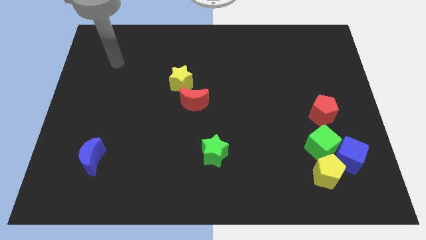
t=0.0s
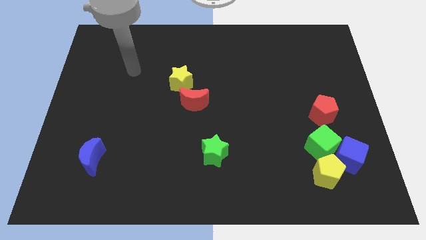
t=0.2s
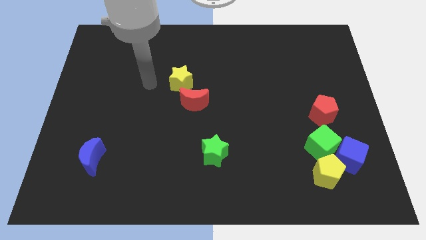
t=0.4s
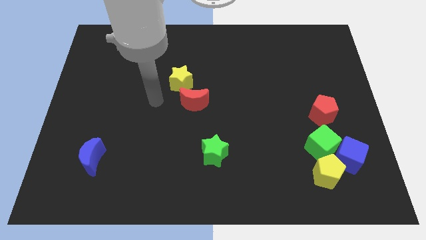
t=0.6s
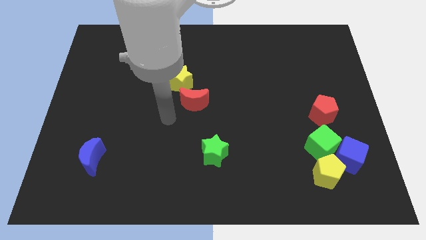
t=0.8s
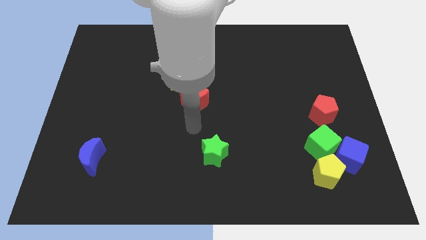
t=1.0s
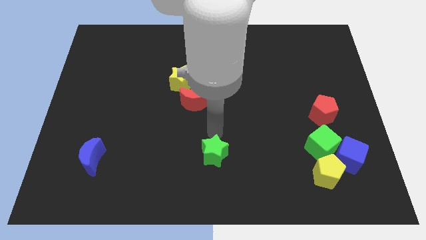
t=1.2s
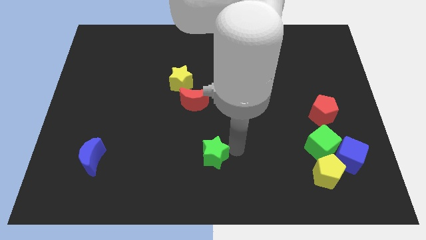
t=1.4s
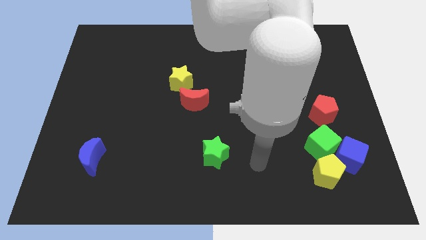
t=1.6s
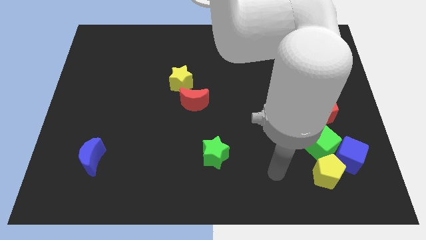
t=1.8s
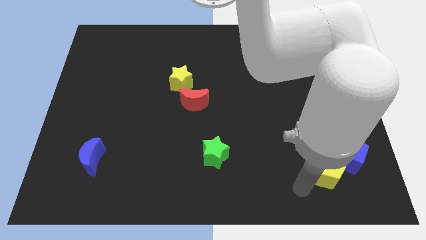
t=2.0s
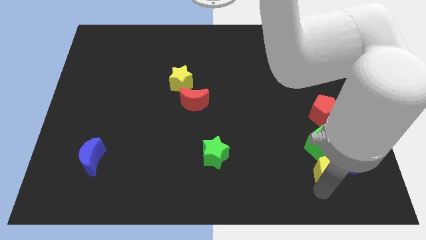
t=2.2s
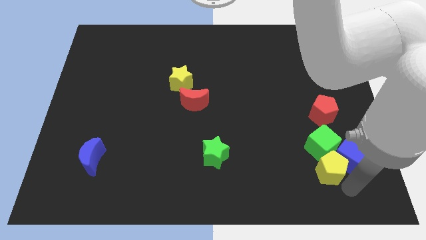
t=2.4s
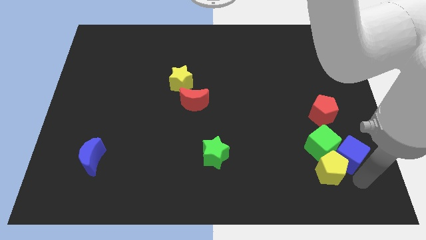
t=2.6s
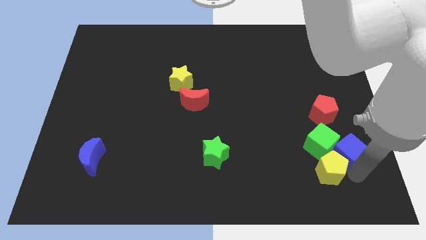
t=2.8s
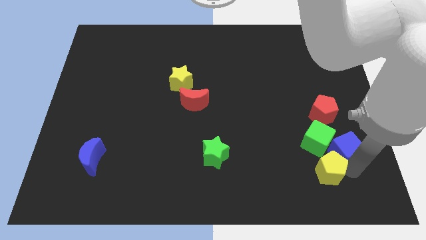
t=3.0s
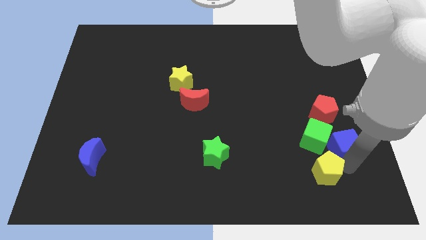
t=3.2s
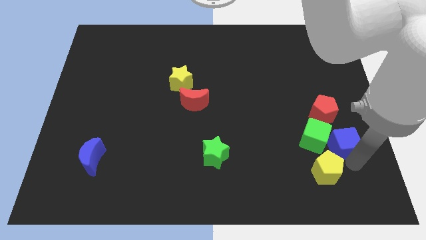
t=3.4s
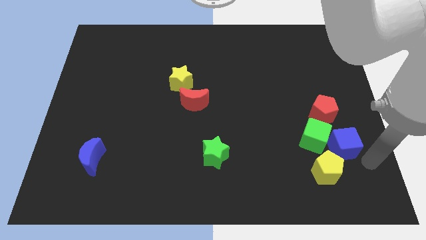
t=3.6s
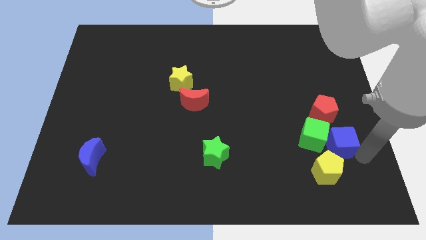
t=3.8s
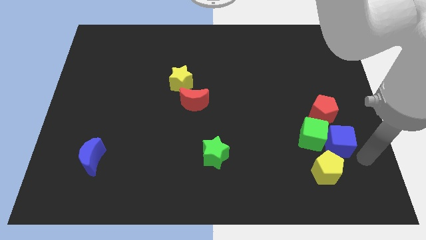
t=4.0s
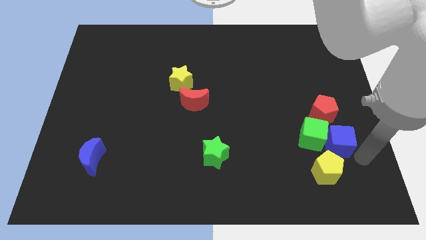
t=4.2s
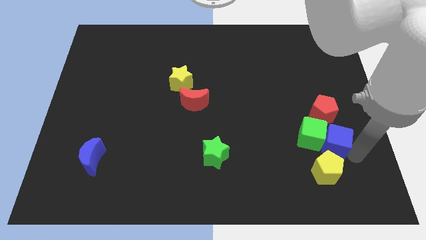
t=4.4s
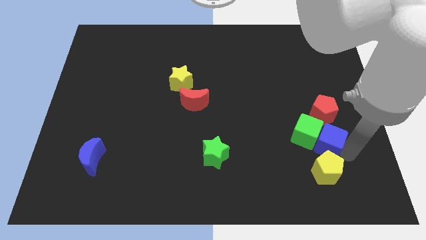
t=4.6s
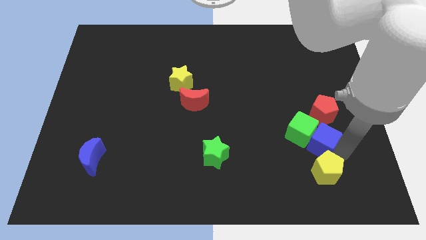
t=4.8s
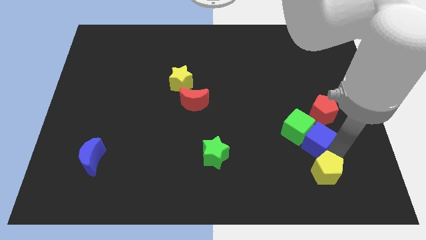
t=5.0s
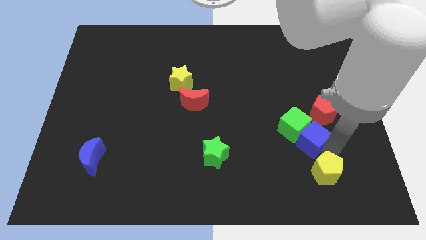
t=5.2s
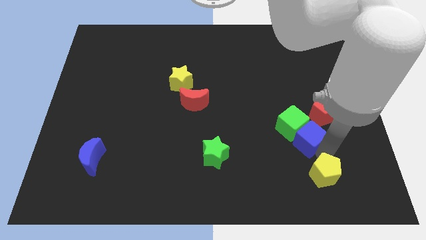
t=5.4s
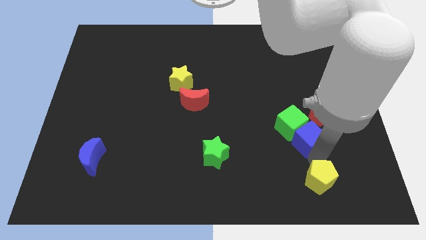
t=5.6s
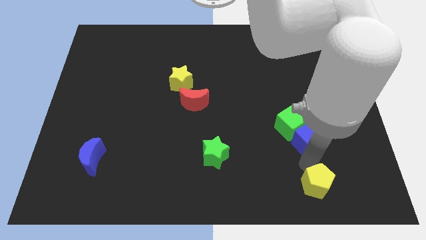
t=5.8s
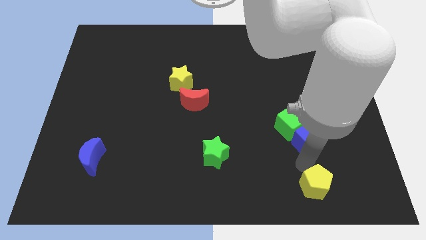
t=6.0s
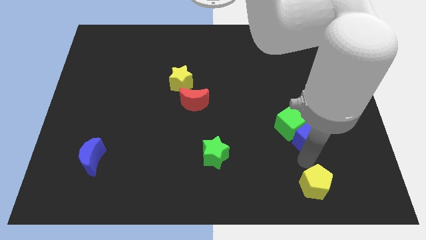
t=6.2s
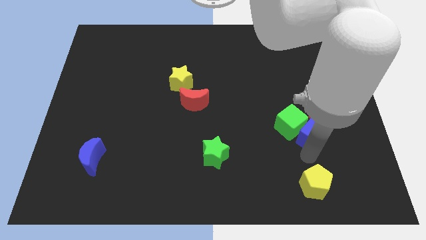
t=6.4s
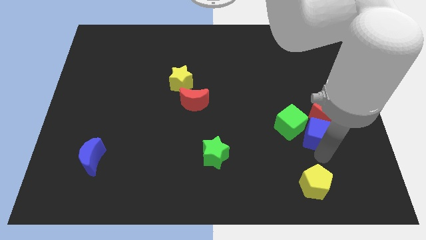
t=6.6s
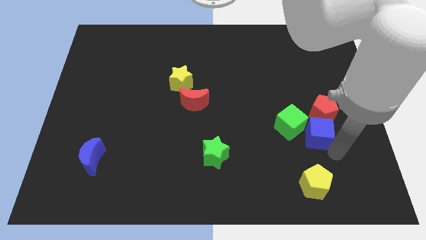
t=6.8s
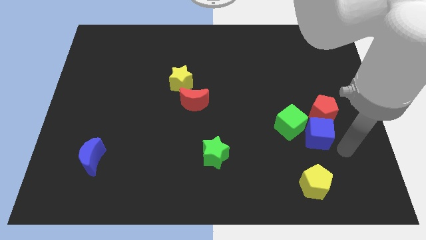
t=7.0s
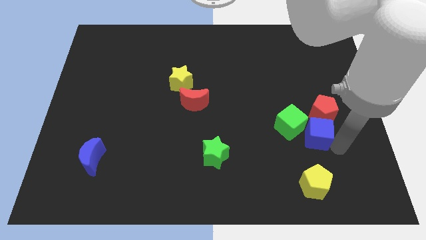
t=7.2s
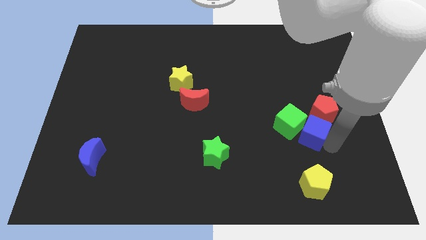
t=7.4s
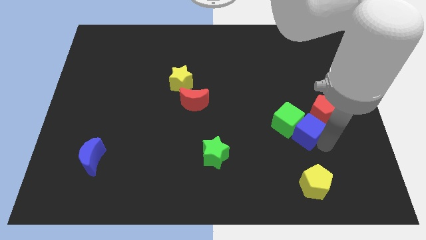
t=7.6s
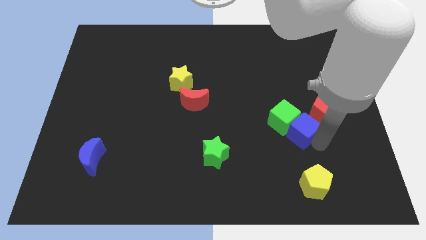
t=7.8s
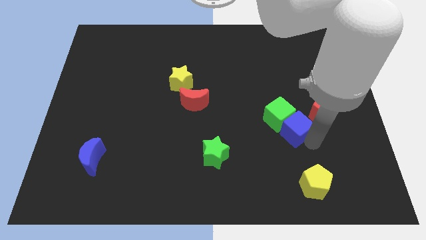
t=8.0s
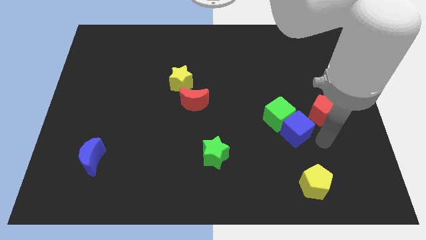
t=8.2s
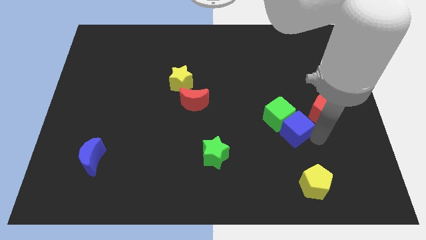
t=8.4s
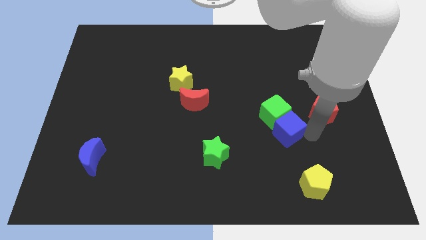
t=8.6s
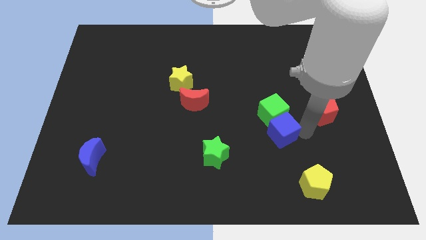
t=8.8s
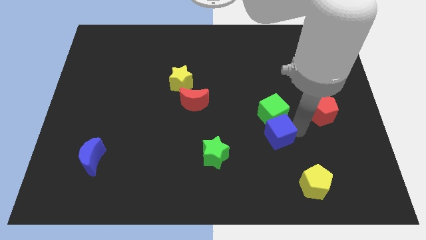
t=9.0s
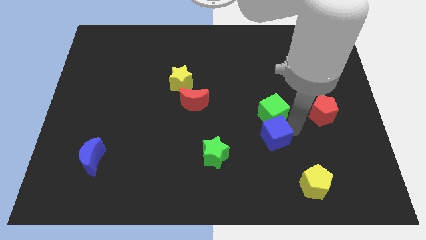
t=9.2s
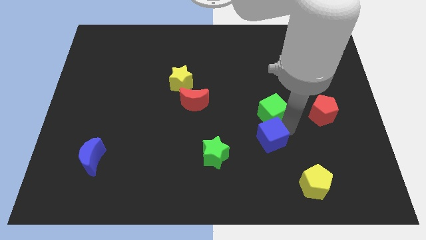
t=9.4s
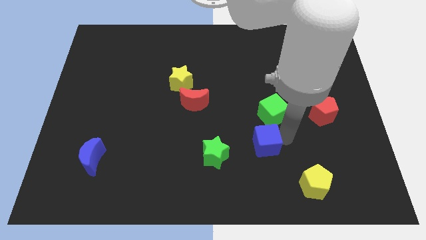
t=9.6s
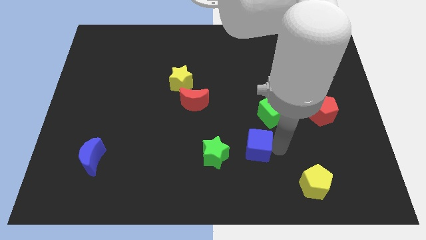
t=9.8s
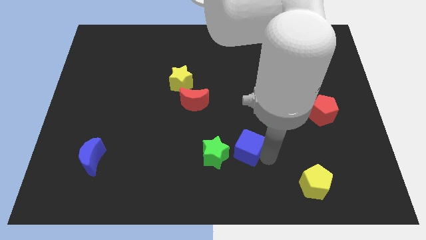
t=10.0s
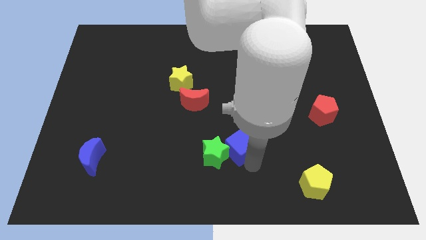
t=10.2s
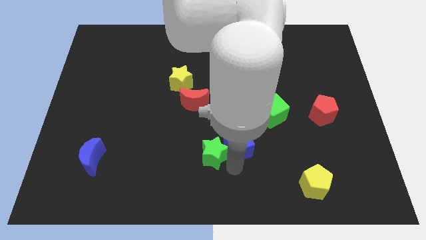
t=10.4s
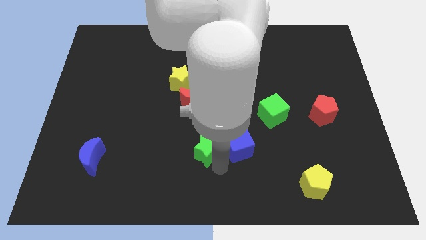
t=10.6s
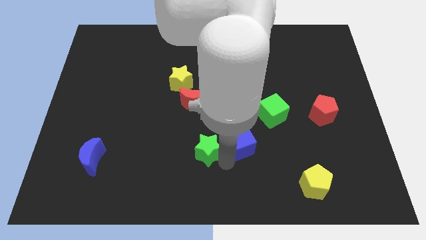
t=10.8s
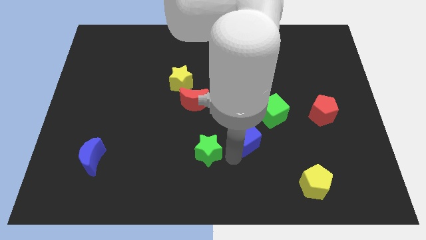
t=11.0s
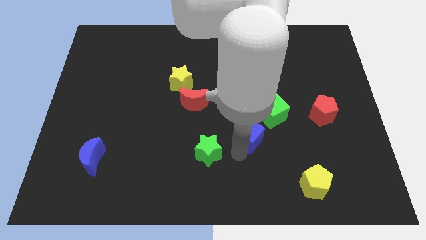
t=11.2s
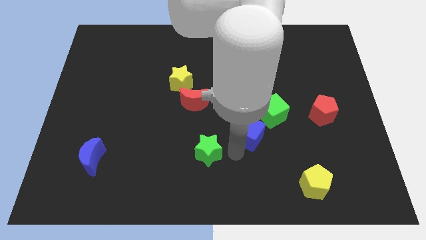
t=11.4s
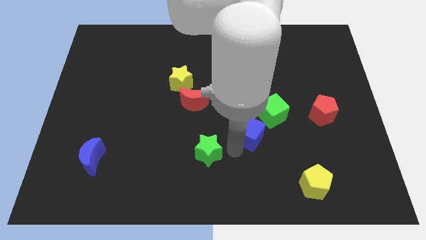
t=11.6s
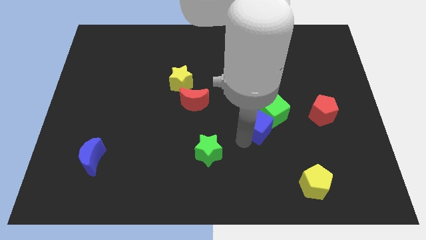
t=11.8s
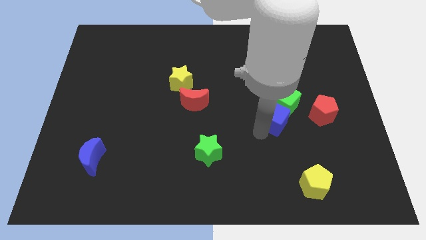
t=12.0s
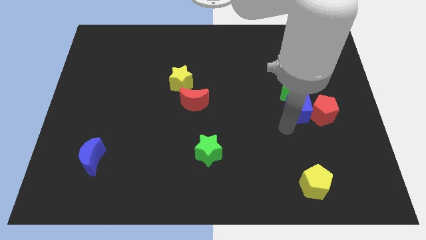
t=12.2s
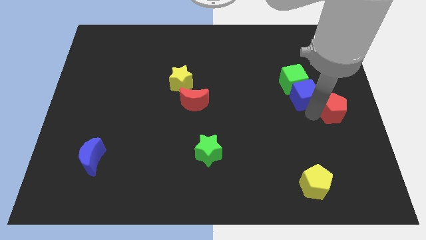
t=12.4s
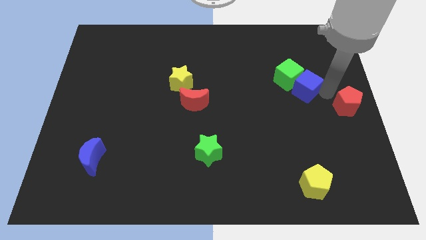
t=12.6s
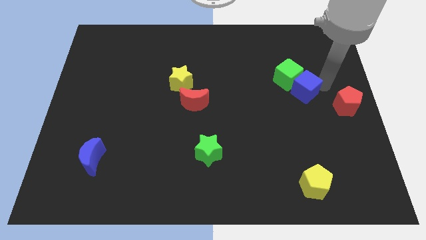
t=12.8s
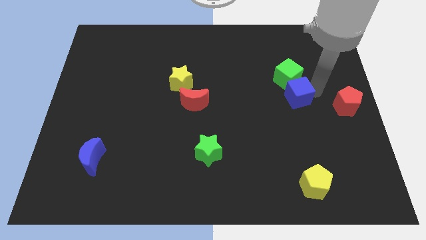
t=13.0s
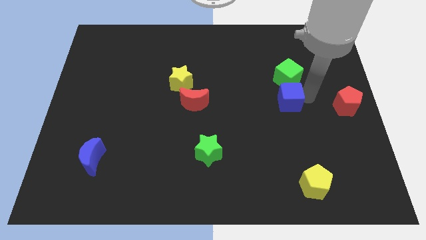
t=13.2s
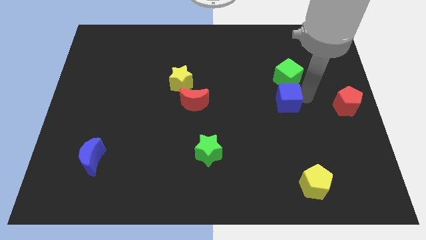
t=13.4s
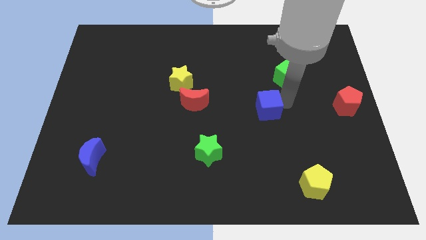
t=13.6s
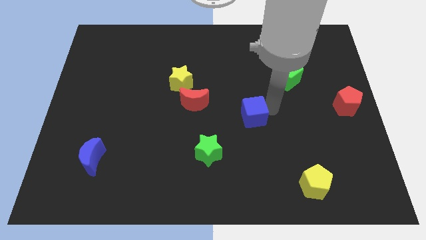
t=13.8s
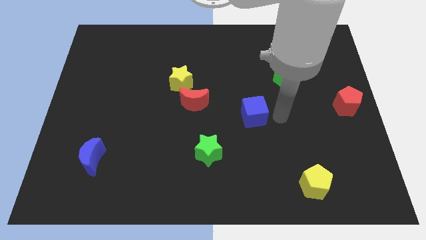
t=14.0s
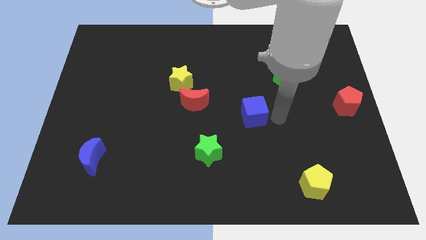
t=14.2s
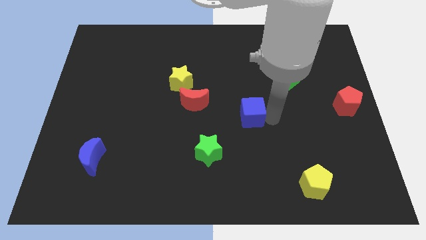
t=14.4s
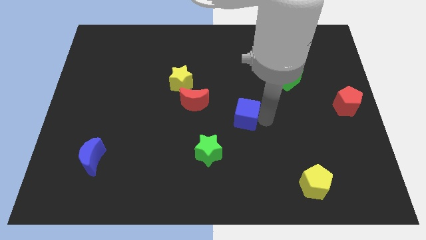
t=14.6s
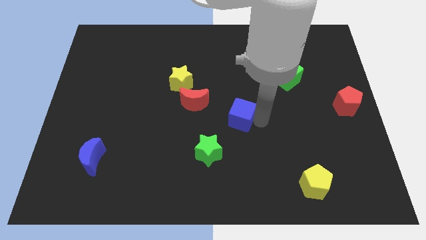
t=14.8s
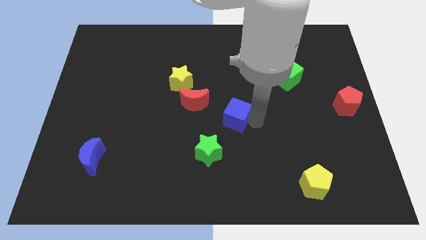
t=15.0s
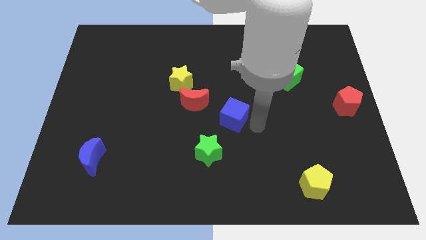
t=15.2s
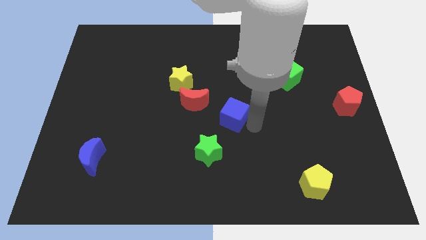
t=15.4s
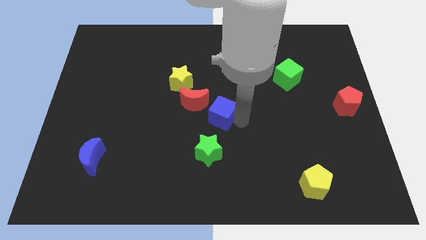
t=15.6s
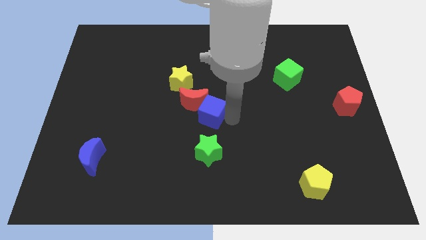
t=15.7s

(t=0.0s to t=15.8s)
slide the blue cube to the red moon
